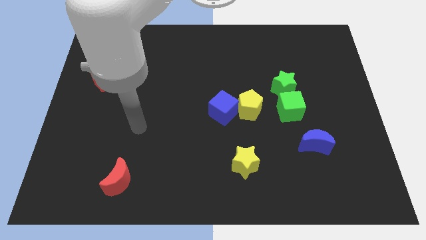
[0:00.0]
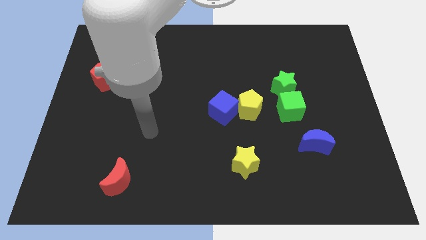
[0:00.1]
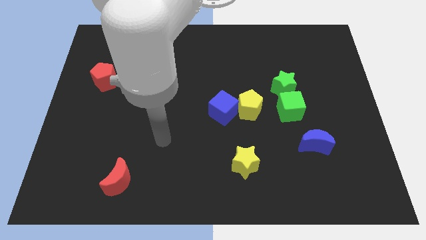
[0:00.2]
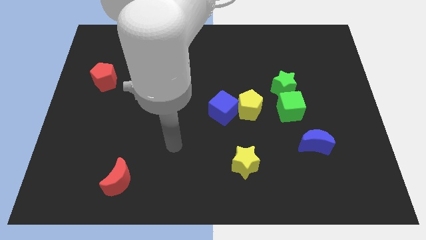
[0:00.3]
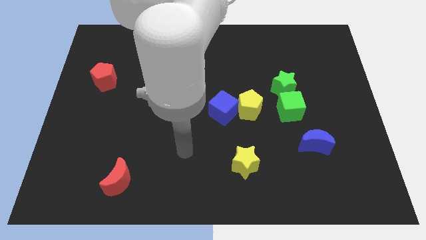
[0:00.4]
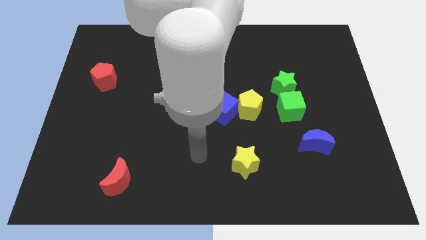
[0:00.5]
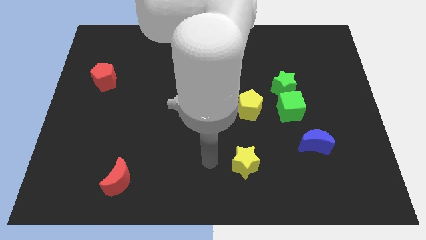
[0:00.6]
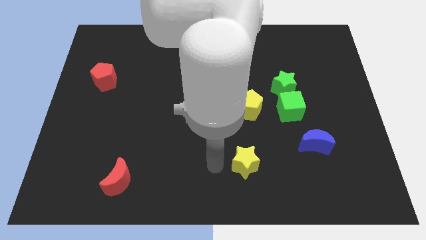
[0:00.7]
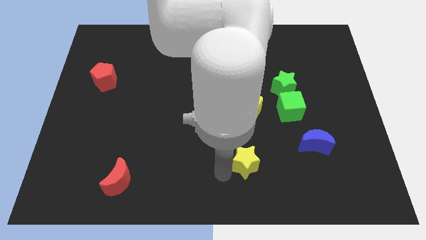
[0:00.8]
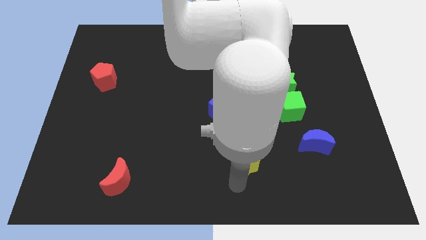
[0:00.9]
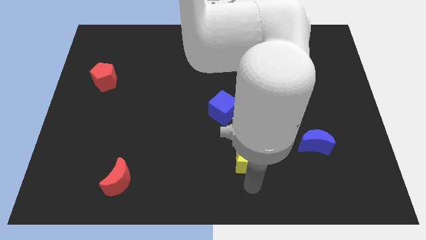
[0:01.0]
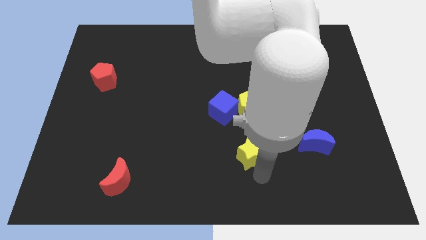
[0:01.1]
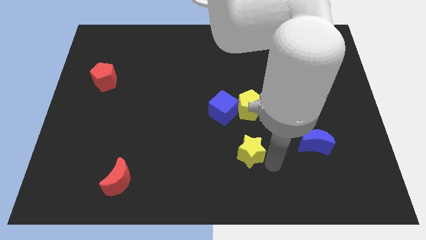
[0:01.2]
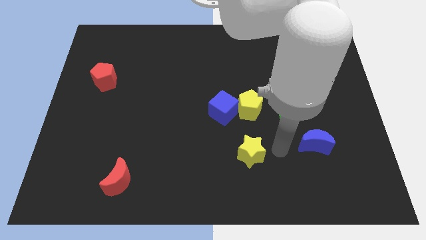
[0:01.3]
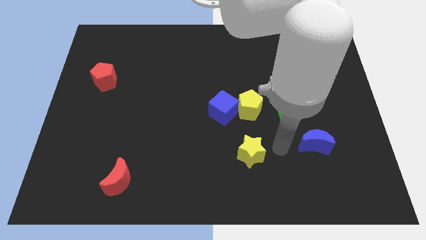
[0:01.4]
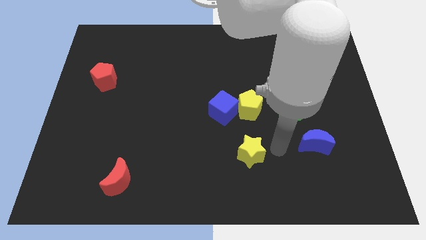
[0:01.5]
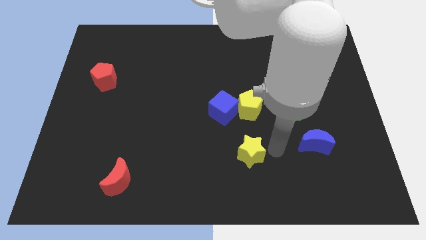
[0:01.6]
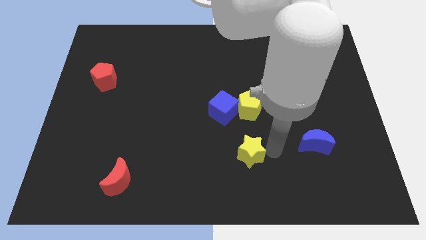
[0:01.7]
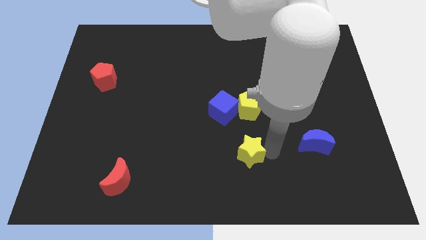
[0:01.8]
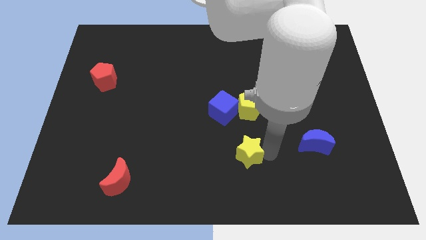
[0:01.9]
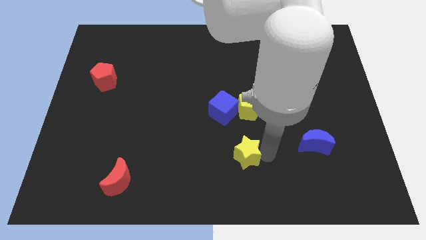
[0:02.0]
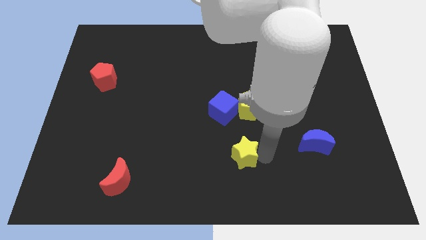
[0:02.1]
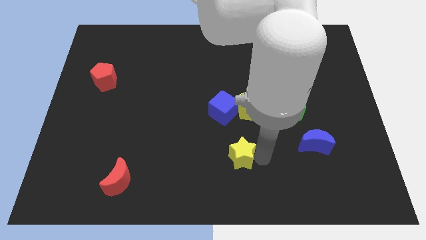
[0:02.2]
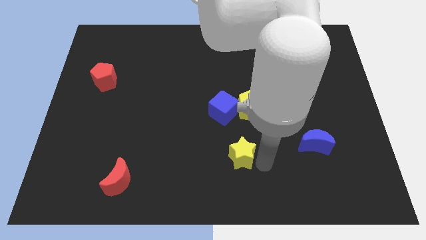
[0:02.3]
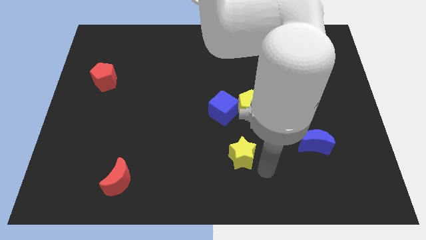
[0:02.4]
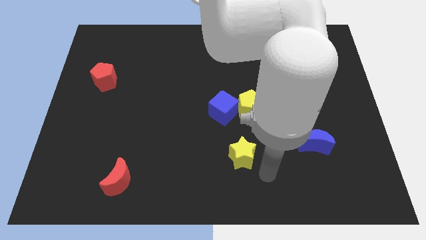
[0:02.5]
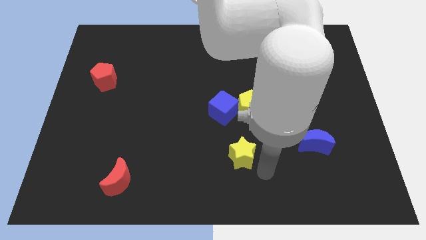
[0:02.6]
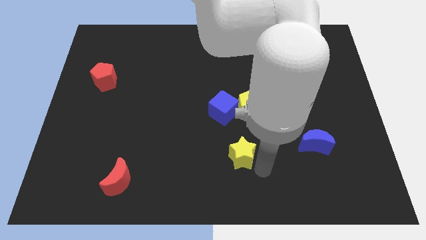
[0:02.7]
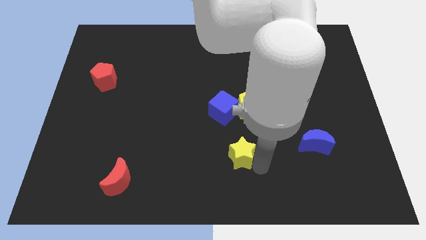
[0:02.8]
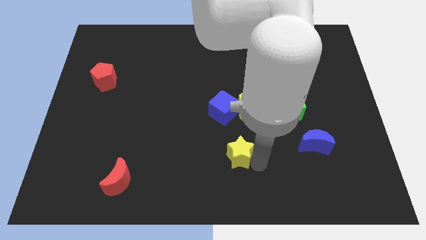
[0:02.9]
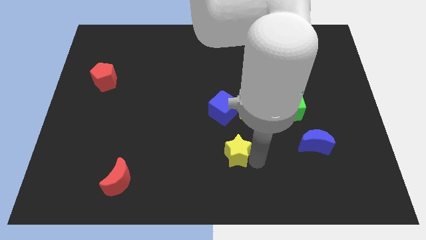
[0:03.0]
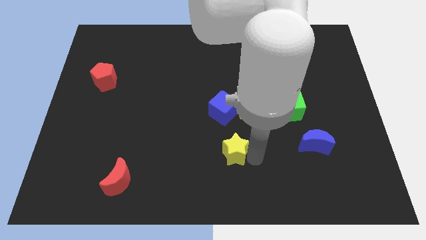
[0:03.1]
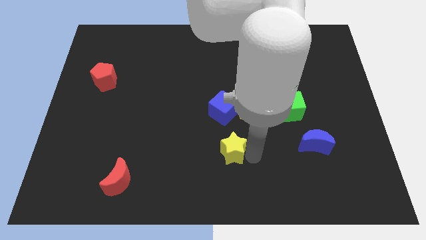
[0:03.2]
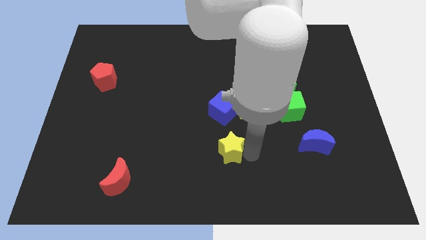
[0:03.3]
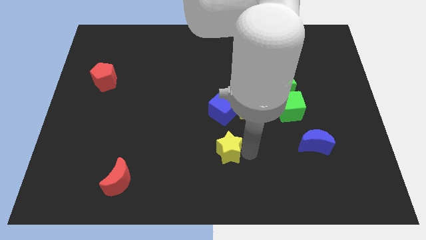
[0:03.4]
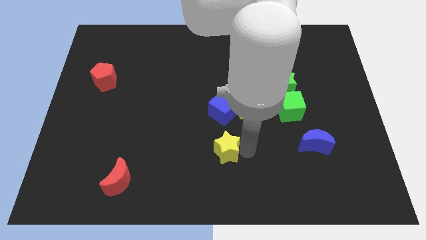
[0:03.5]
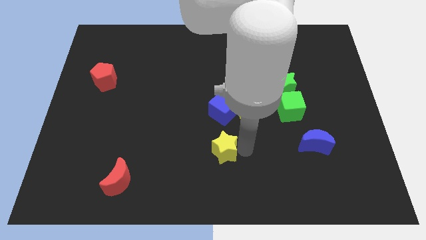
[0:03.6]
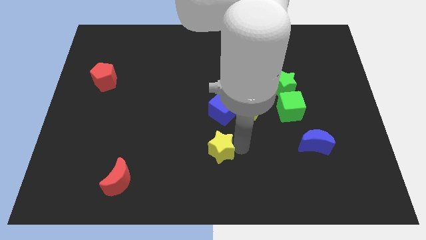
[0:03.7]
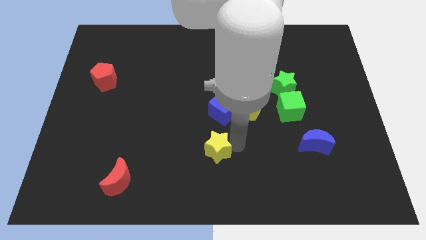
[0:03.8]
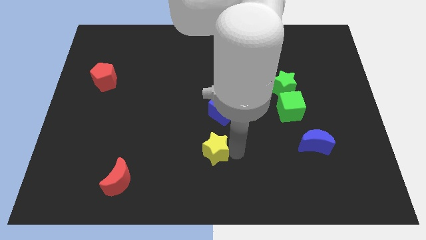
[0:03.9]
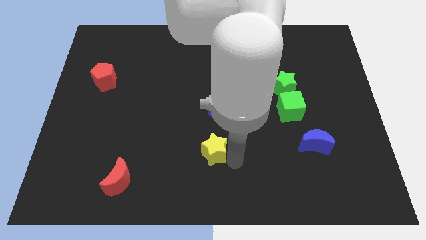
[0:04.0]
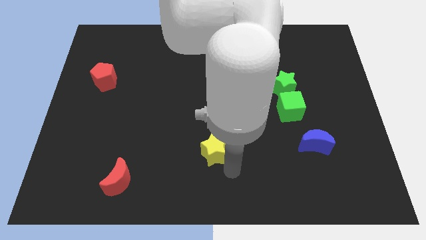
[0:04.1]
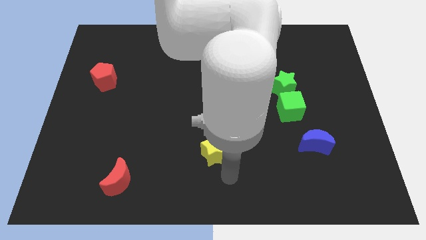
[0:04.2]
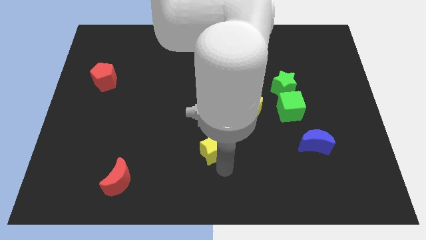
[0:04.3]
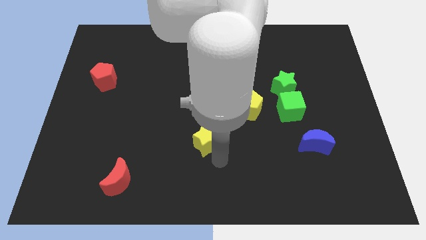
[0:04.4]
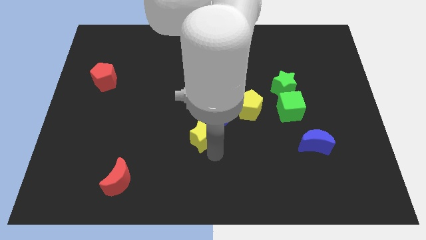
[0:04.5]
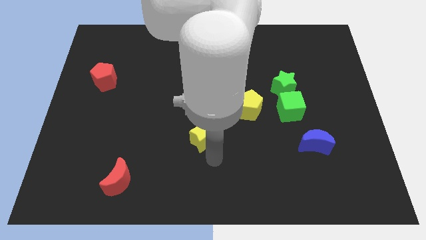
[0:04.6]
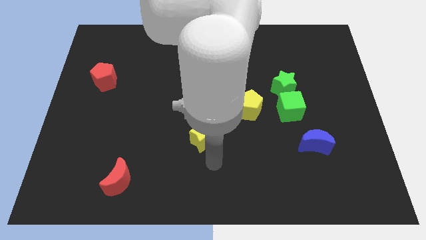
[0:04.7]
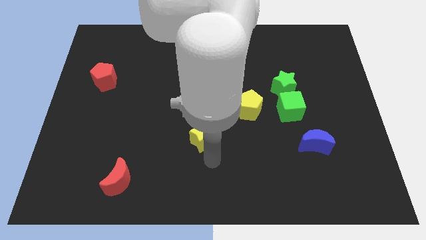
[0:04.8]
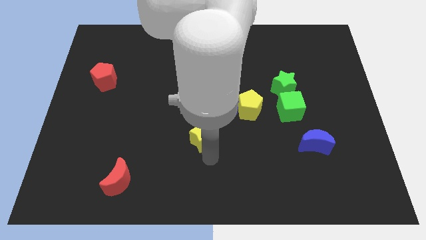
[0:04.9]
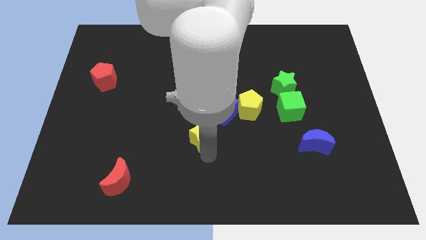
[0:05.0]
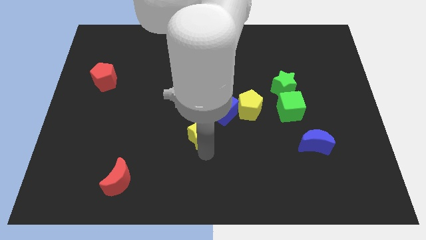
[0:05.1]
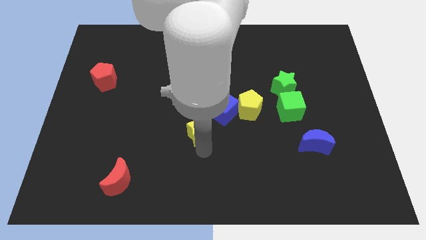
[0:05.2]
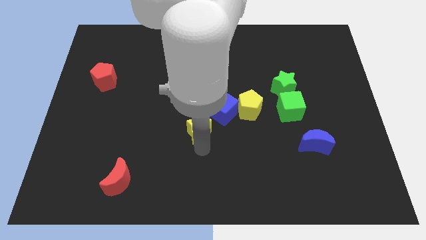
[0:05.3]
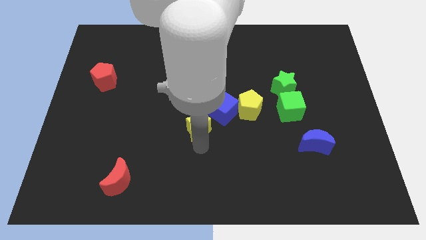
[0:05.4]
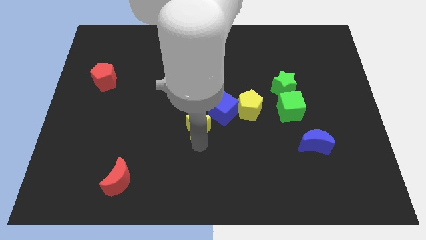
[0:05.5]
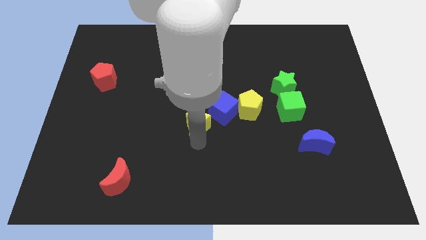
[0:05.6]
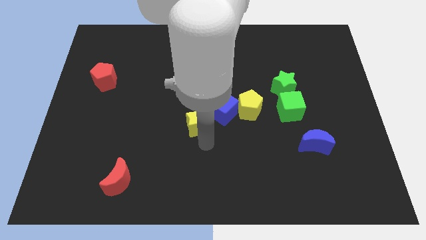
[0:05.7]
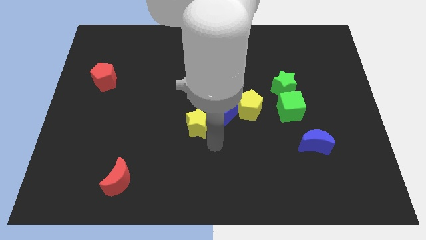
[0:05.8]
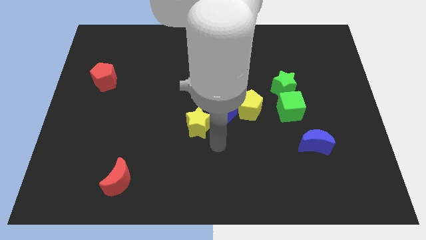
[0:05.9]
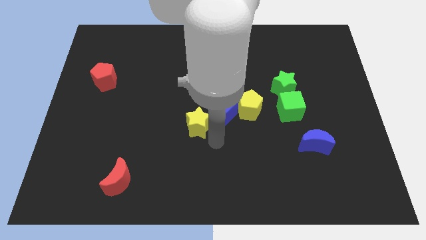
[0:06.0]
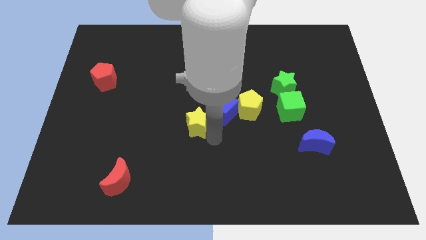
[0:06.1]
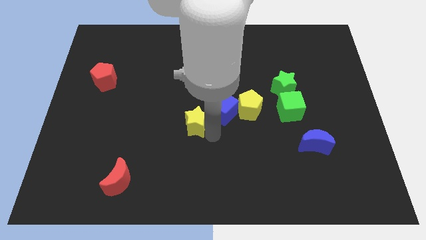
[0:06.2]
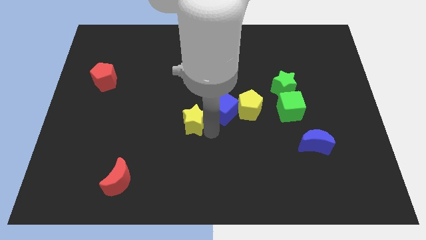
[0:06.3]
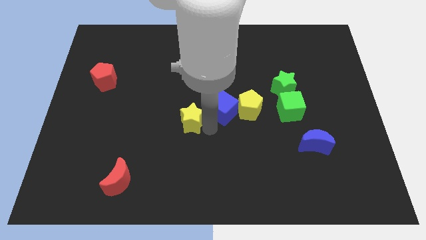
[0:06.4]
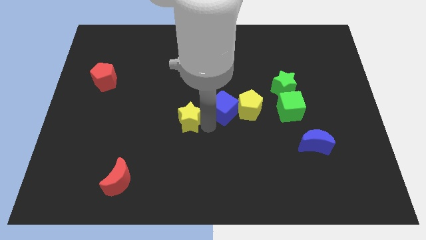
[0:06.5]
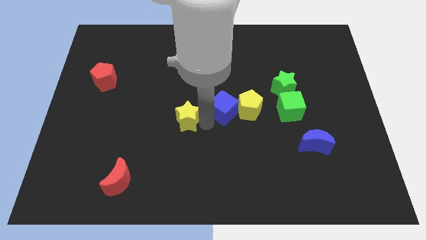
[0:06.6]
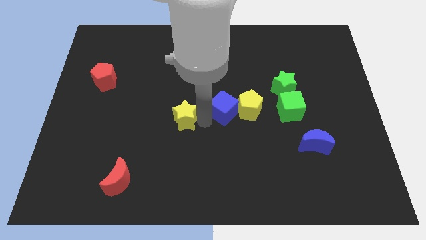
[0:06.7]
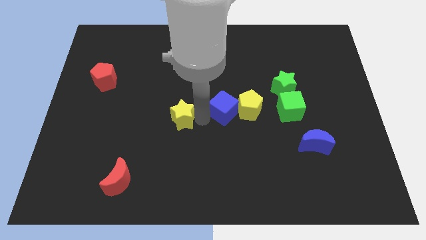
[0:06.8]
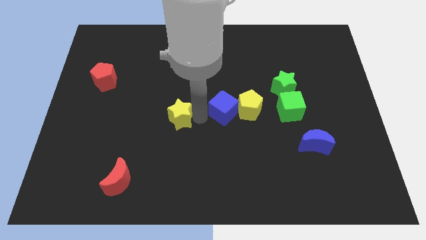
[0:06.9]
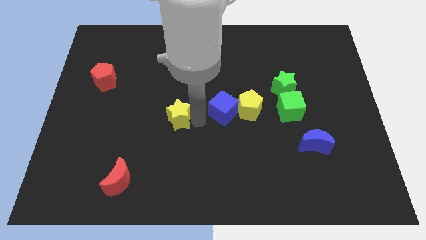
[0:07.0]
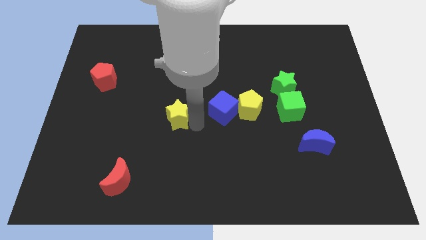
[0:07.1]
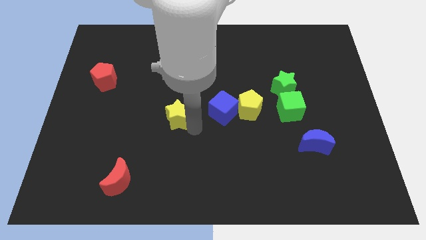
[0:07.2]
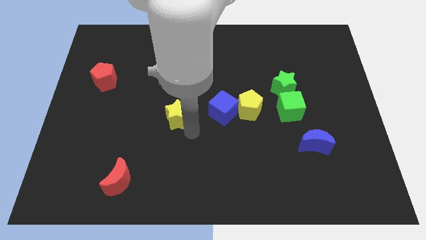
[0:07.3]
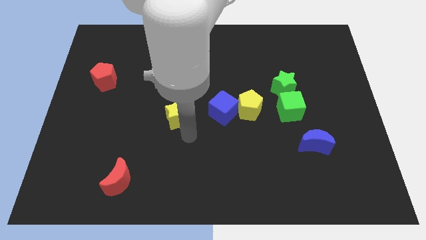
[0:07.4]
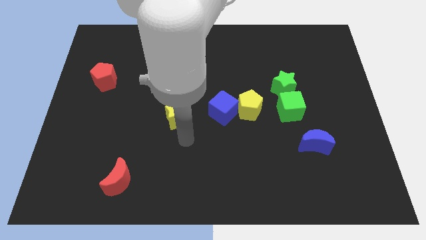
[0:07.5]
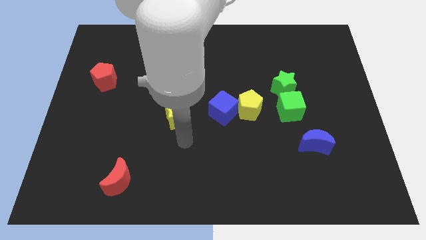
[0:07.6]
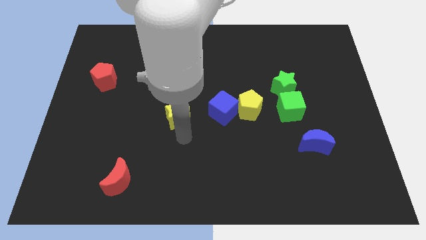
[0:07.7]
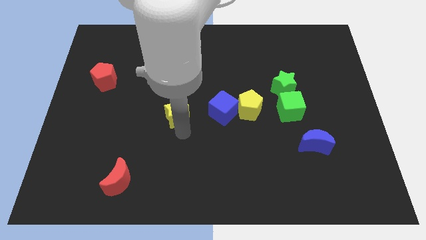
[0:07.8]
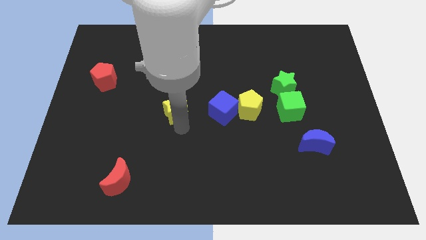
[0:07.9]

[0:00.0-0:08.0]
push the yellow star upwards and to the left diagonally
